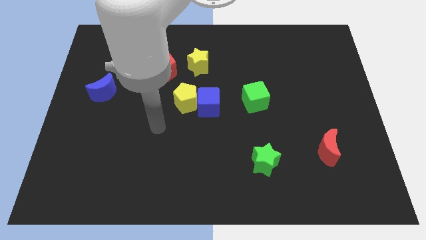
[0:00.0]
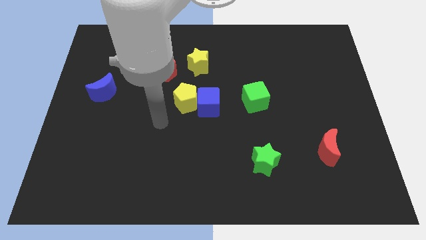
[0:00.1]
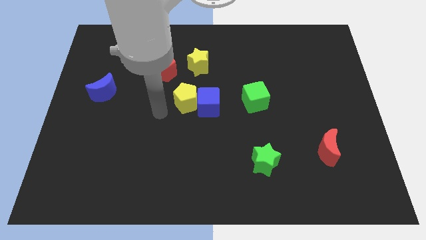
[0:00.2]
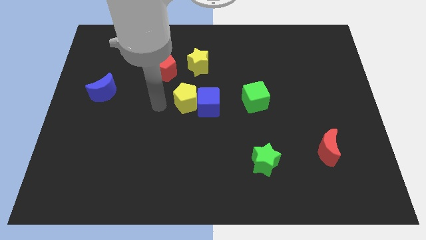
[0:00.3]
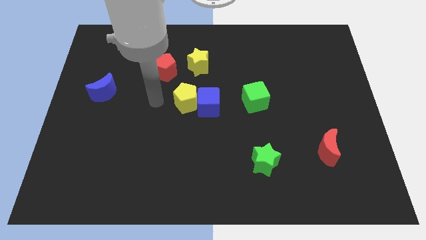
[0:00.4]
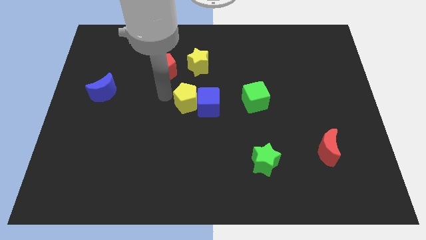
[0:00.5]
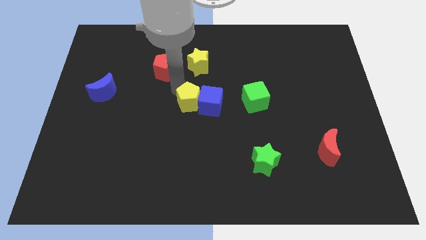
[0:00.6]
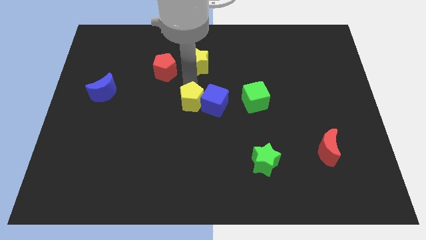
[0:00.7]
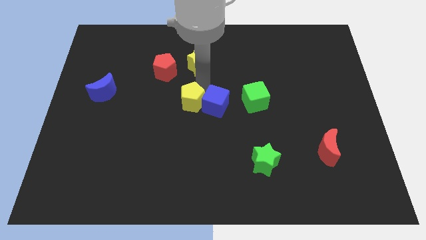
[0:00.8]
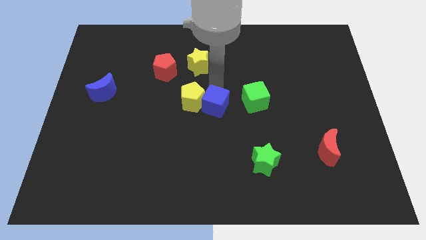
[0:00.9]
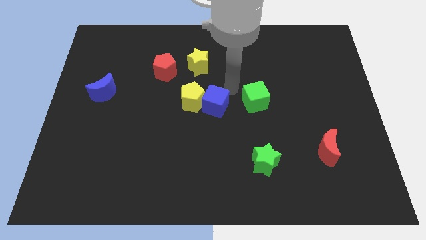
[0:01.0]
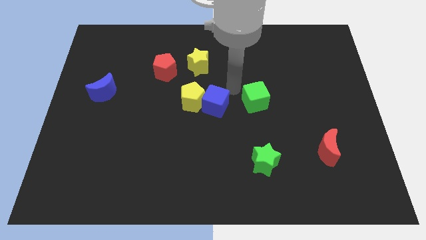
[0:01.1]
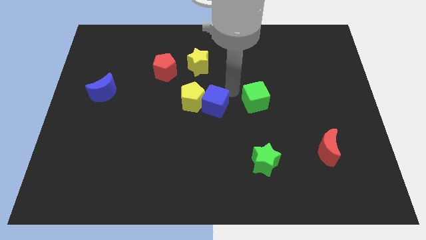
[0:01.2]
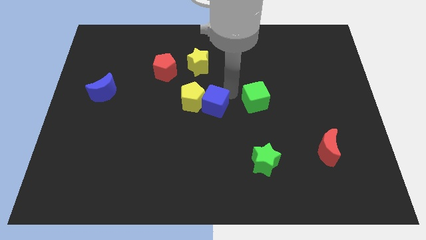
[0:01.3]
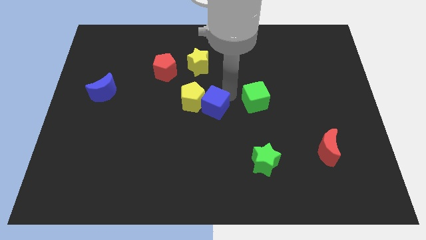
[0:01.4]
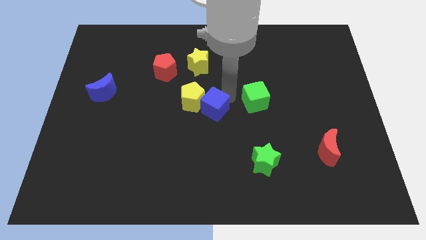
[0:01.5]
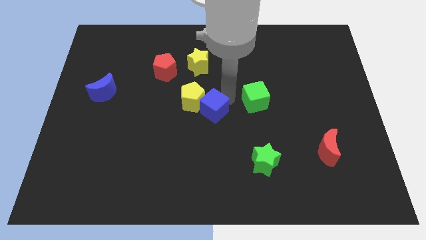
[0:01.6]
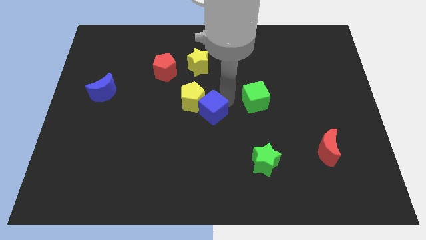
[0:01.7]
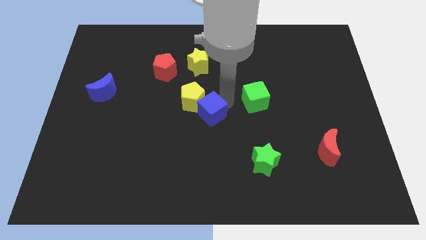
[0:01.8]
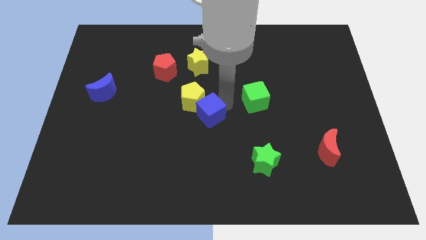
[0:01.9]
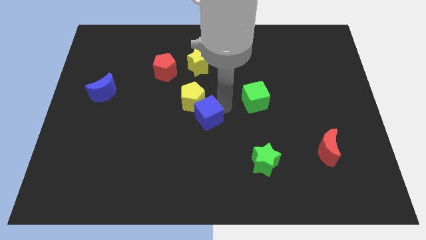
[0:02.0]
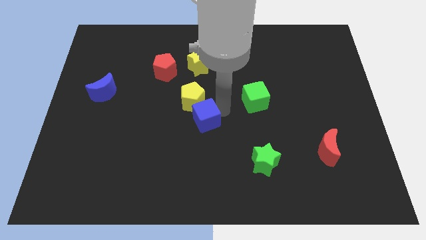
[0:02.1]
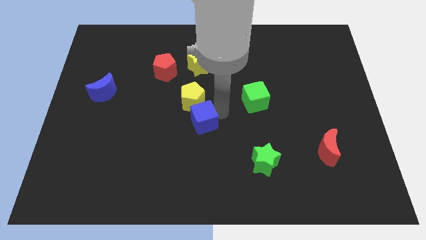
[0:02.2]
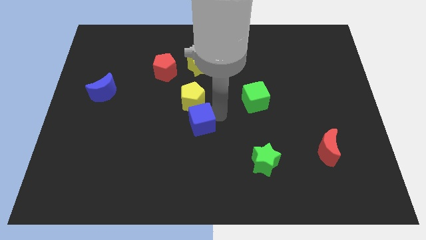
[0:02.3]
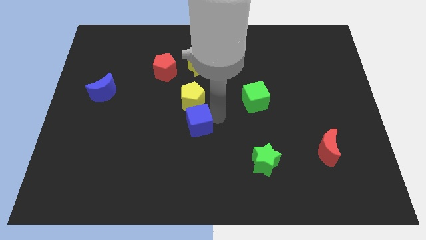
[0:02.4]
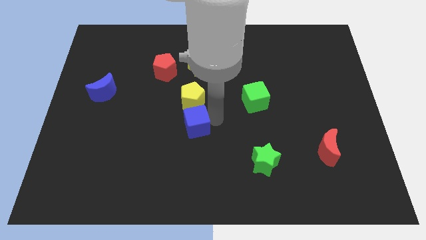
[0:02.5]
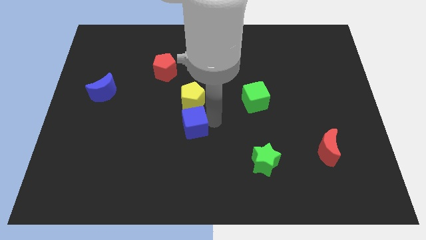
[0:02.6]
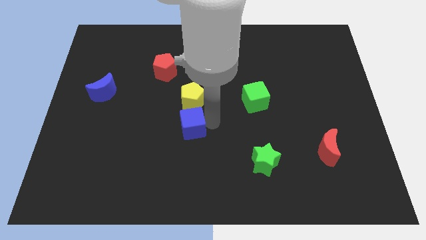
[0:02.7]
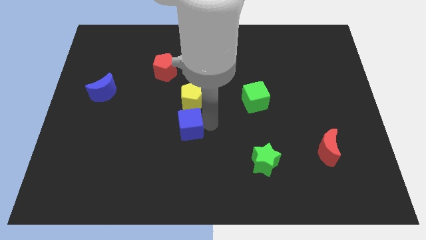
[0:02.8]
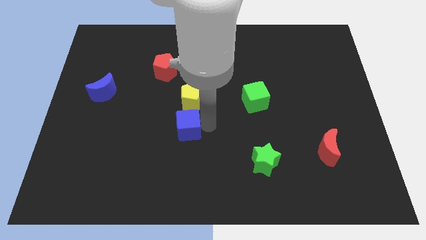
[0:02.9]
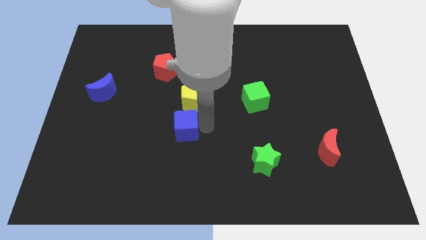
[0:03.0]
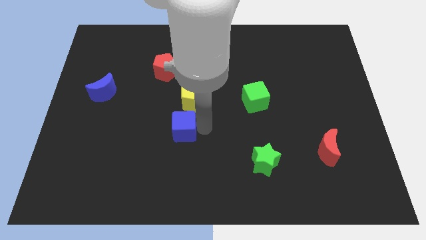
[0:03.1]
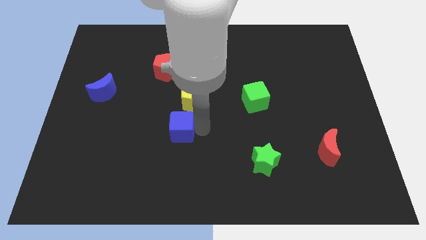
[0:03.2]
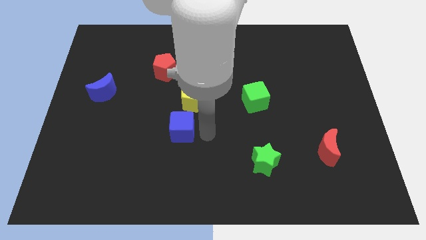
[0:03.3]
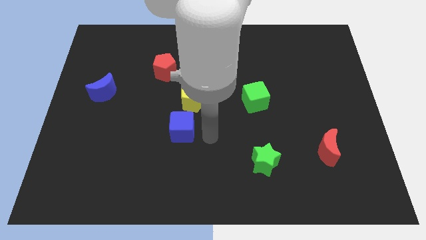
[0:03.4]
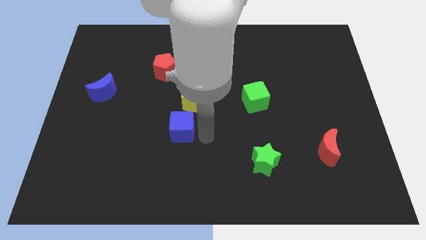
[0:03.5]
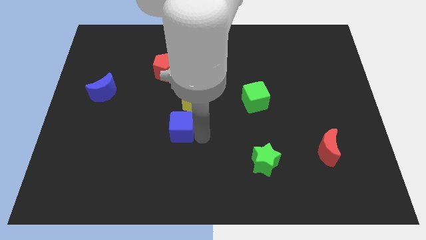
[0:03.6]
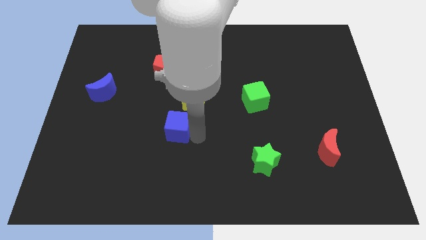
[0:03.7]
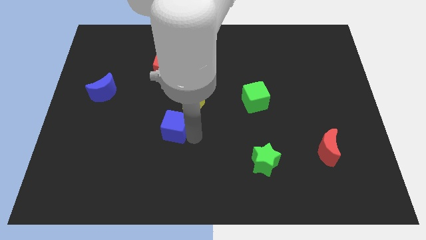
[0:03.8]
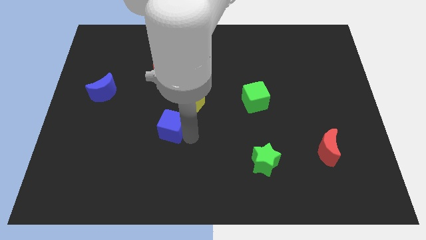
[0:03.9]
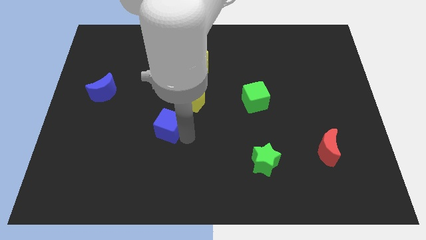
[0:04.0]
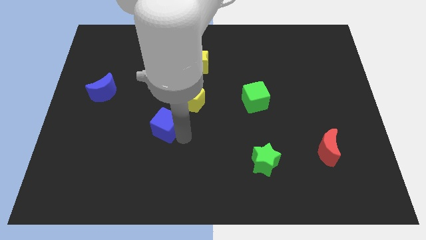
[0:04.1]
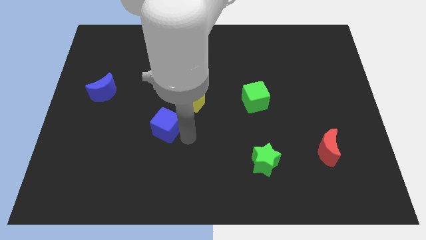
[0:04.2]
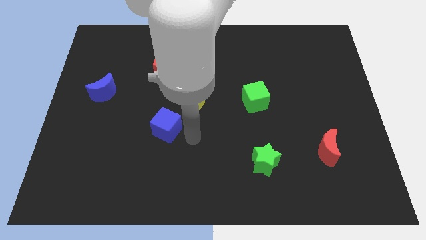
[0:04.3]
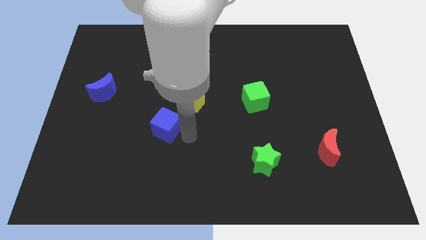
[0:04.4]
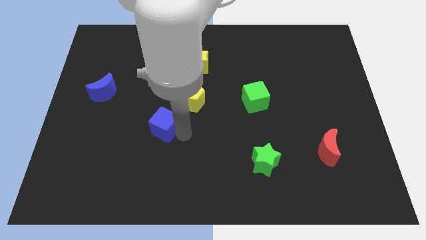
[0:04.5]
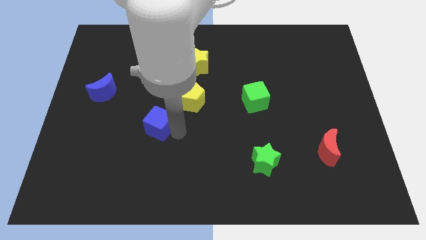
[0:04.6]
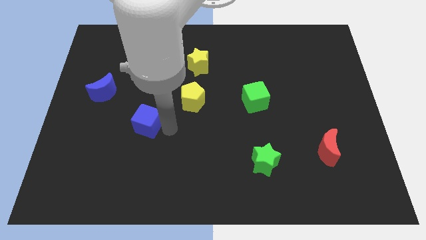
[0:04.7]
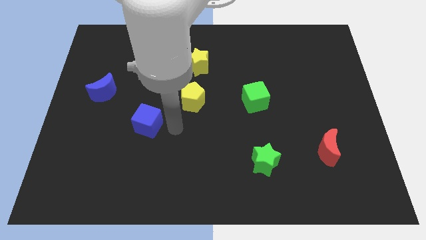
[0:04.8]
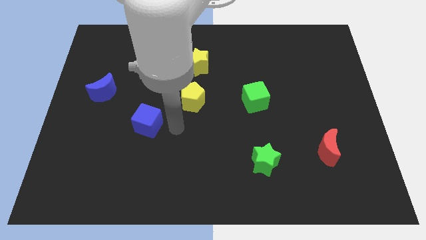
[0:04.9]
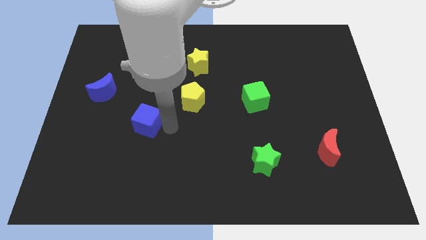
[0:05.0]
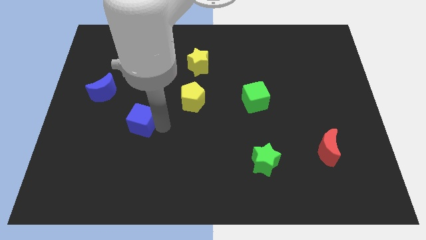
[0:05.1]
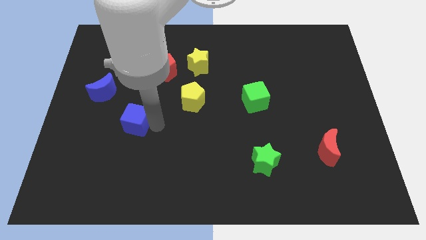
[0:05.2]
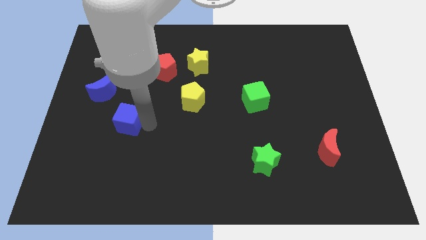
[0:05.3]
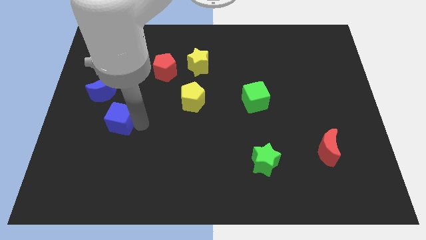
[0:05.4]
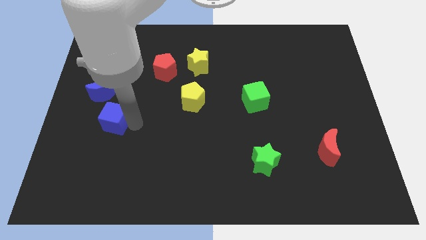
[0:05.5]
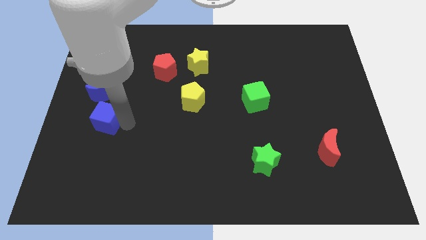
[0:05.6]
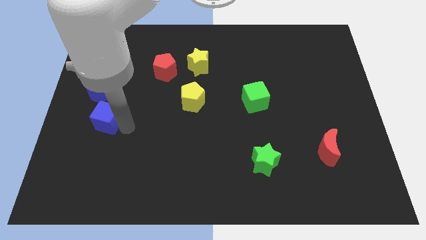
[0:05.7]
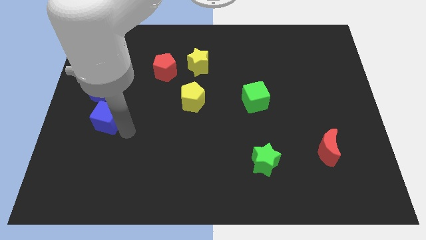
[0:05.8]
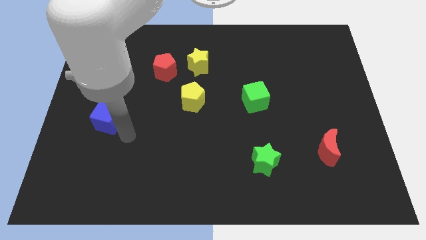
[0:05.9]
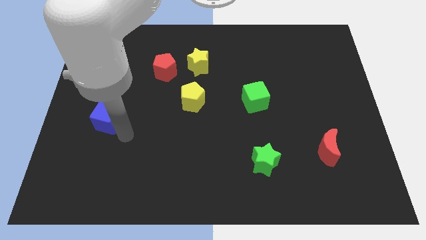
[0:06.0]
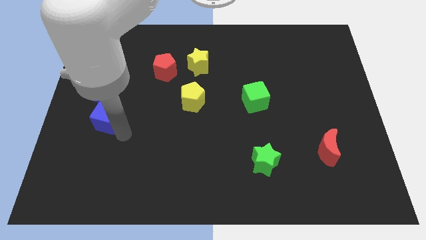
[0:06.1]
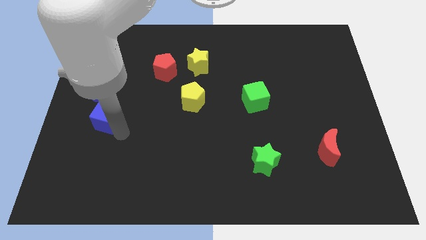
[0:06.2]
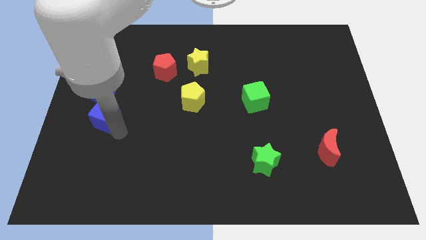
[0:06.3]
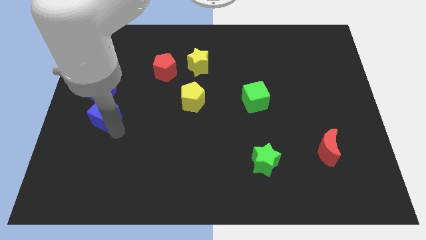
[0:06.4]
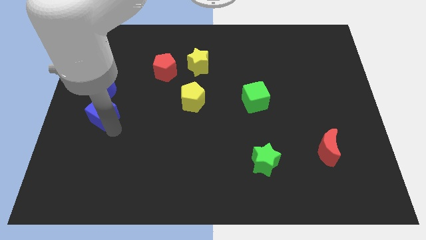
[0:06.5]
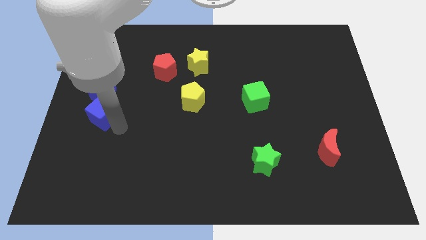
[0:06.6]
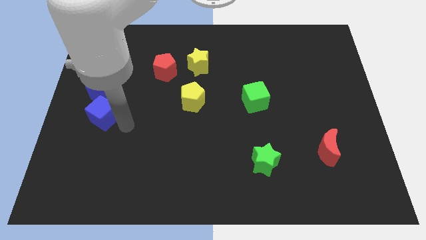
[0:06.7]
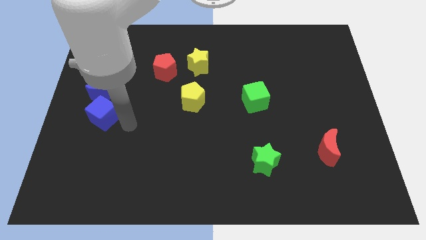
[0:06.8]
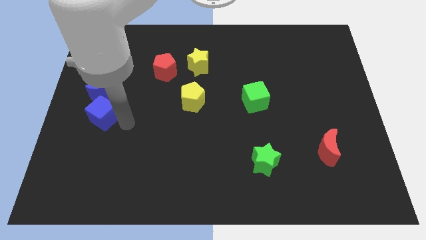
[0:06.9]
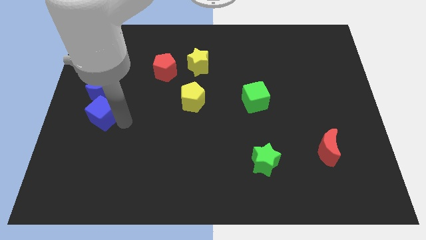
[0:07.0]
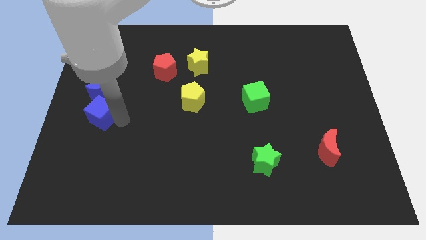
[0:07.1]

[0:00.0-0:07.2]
move the blue cube to the left side of the board
